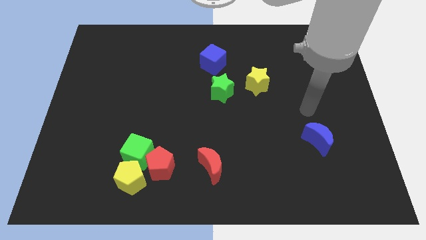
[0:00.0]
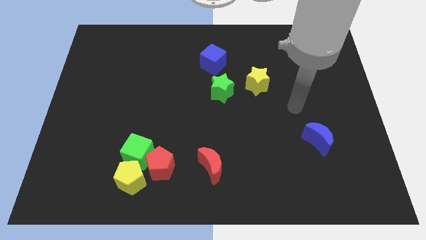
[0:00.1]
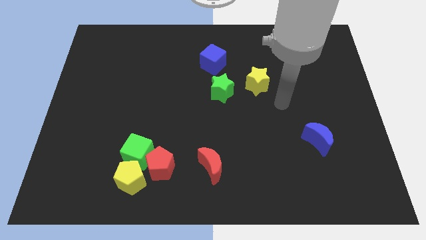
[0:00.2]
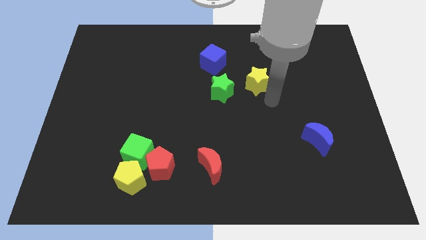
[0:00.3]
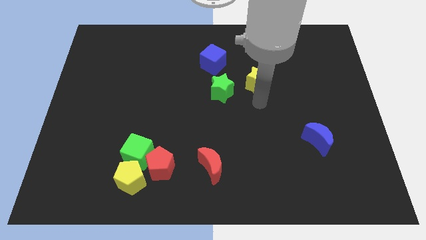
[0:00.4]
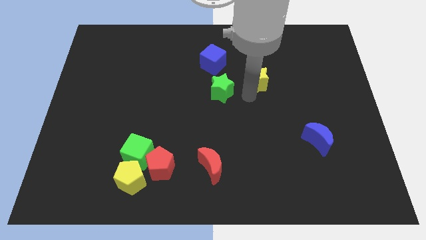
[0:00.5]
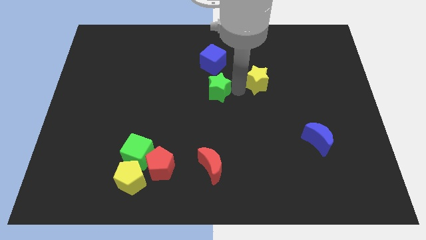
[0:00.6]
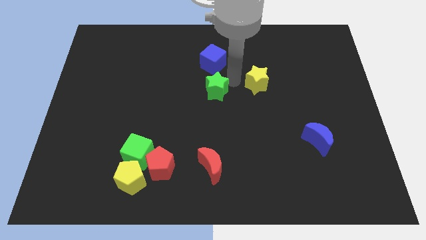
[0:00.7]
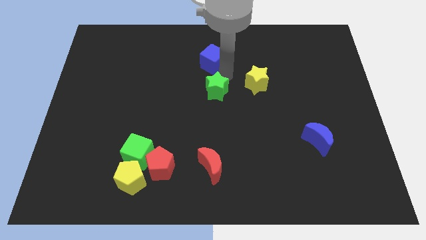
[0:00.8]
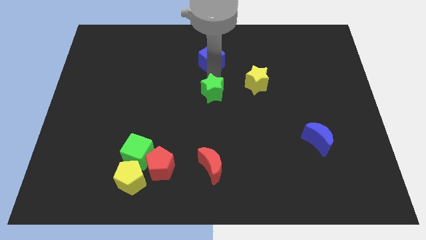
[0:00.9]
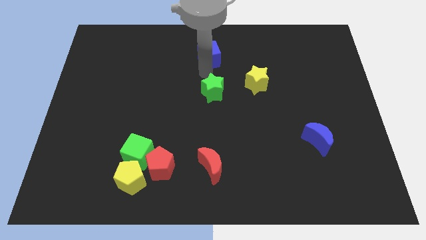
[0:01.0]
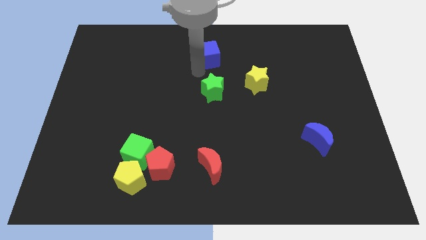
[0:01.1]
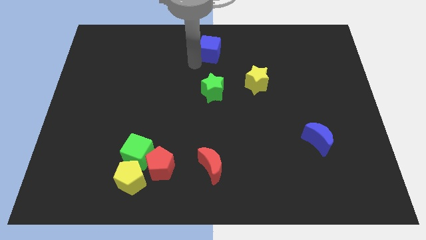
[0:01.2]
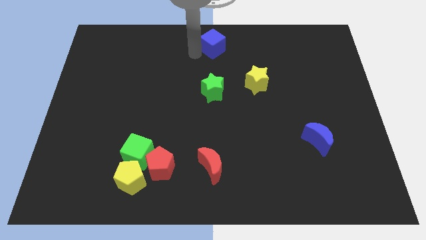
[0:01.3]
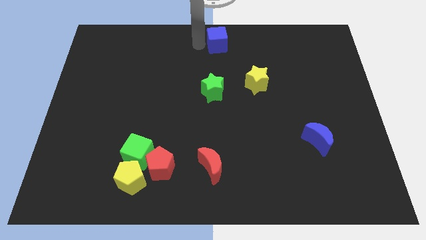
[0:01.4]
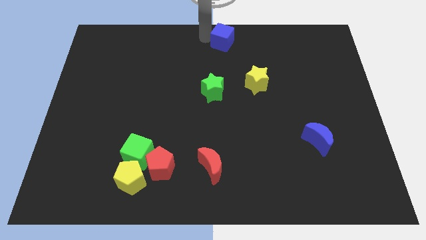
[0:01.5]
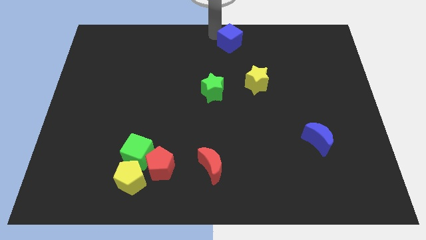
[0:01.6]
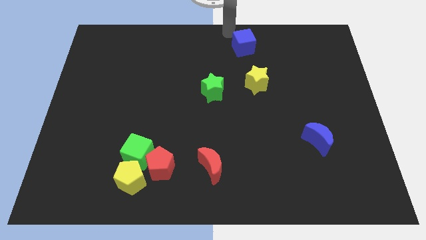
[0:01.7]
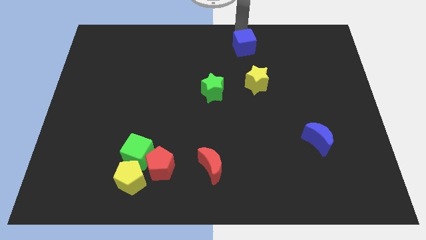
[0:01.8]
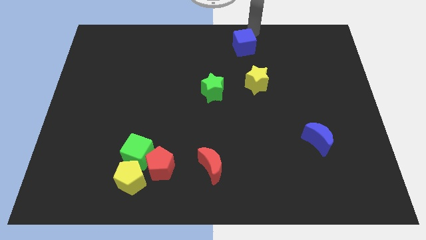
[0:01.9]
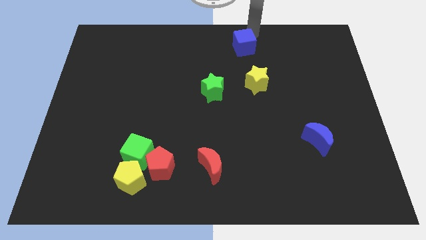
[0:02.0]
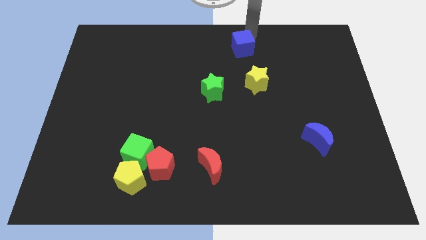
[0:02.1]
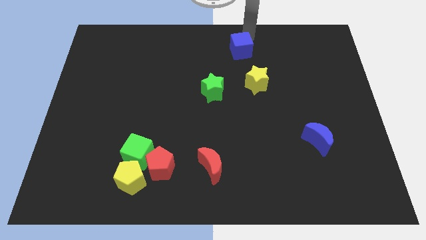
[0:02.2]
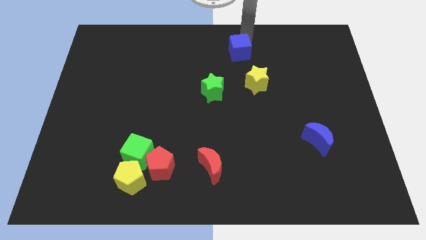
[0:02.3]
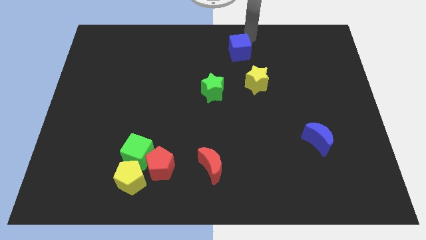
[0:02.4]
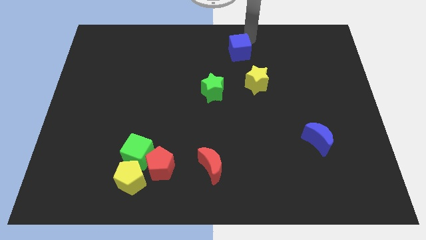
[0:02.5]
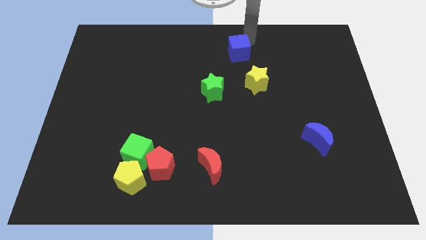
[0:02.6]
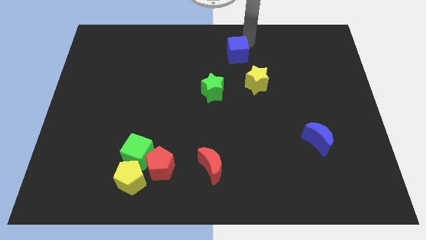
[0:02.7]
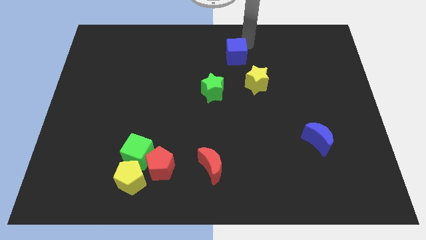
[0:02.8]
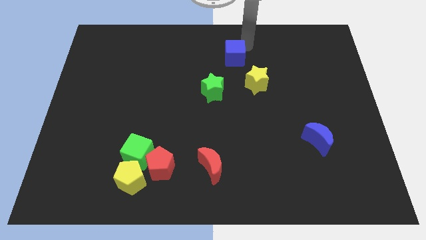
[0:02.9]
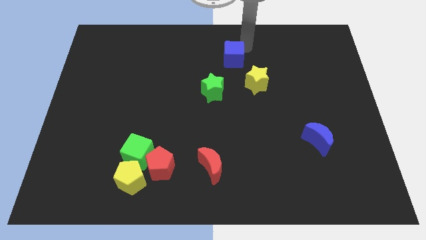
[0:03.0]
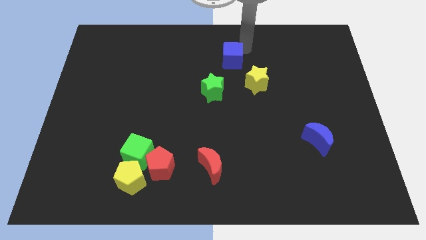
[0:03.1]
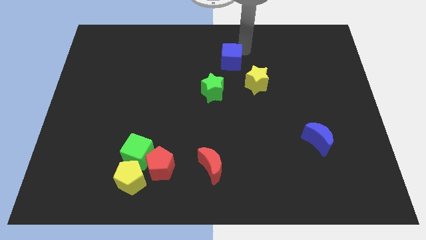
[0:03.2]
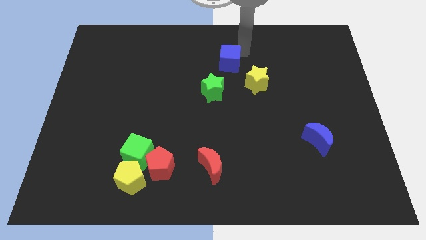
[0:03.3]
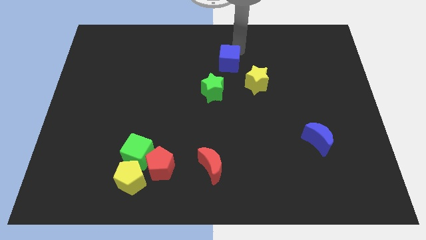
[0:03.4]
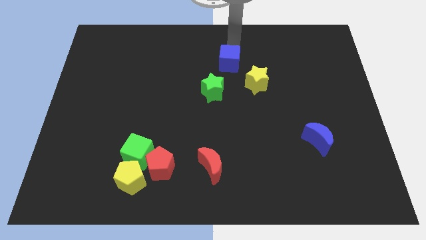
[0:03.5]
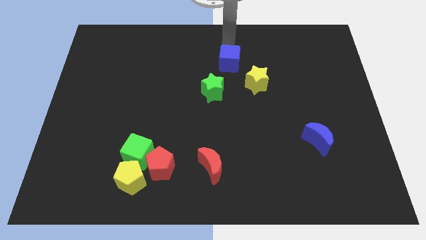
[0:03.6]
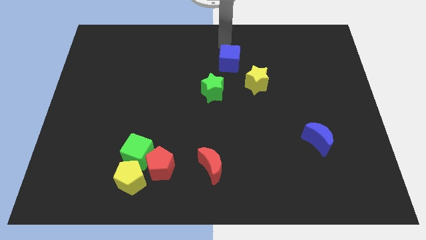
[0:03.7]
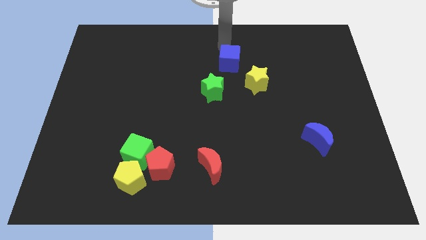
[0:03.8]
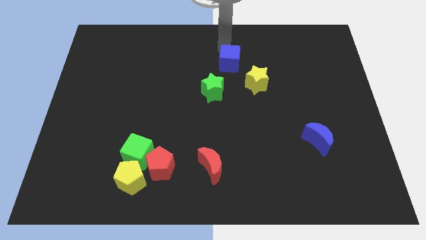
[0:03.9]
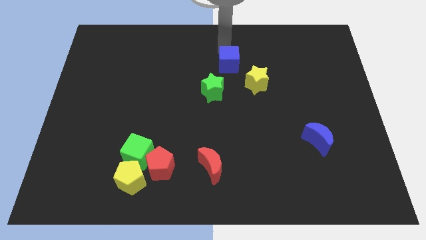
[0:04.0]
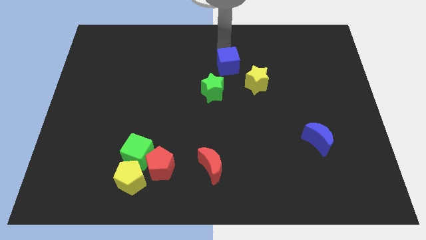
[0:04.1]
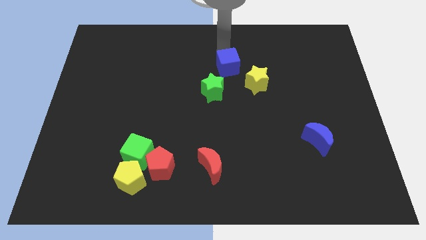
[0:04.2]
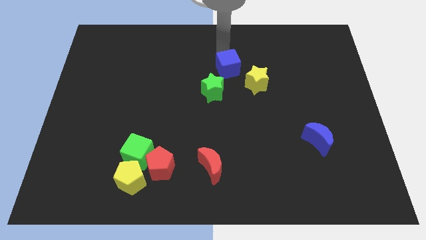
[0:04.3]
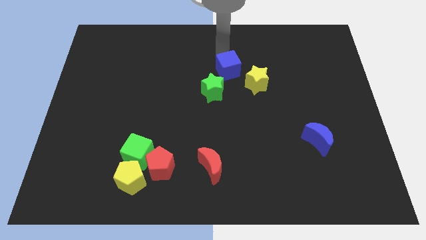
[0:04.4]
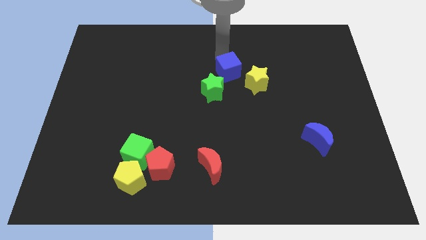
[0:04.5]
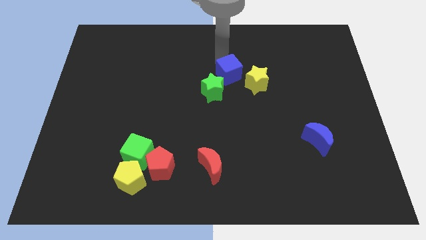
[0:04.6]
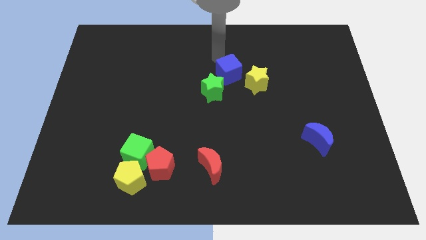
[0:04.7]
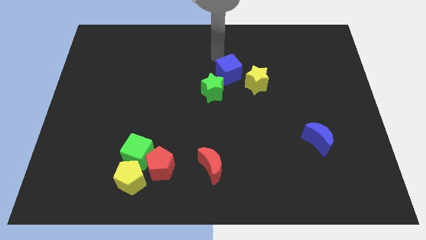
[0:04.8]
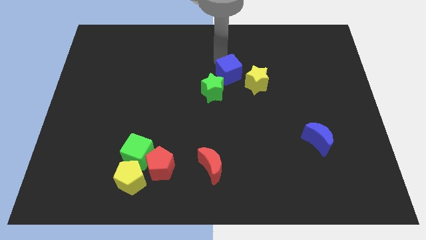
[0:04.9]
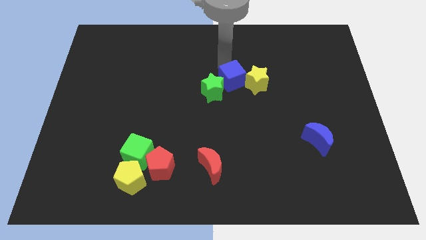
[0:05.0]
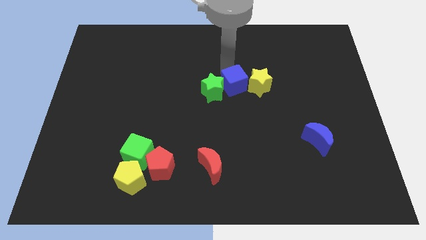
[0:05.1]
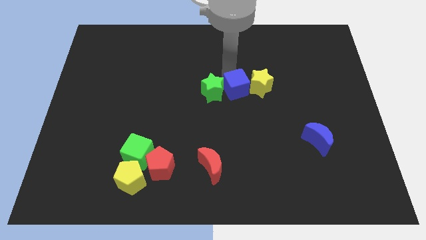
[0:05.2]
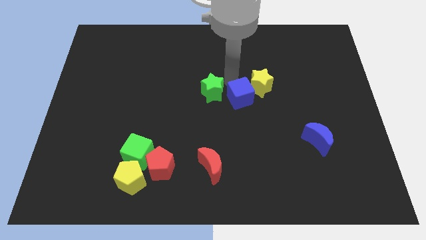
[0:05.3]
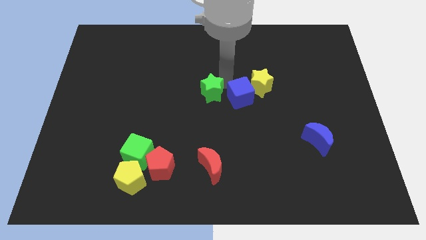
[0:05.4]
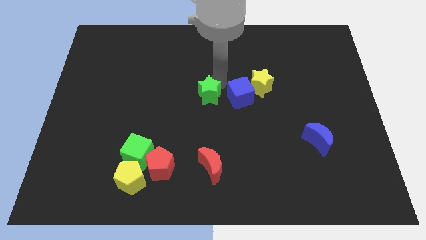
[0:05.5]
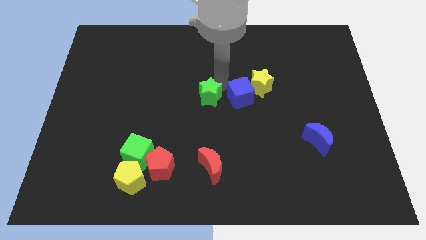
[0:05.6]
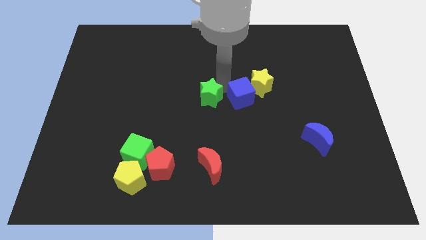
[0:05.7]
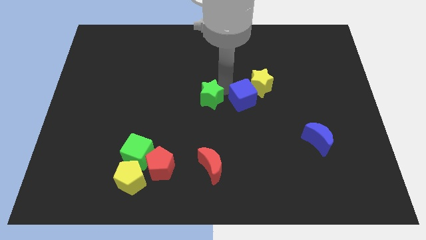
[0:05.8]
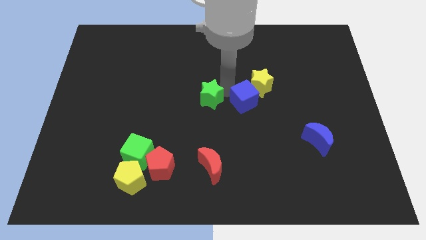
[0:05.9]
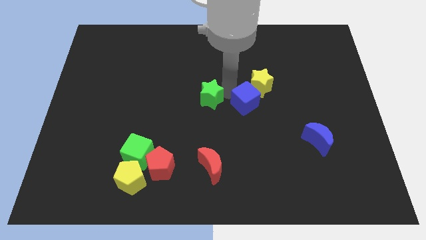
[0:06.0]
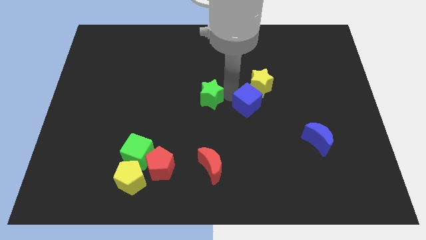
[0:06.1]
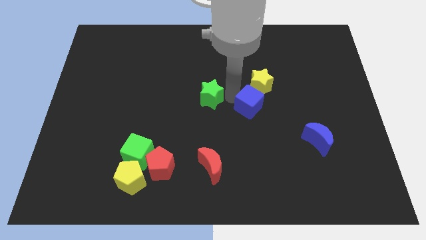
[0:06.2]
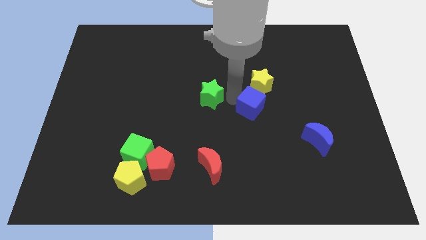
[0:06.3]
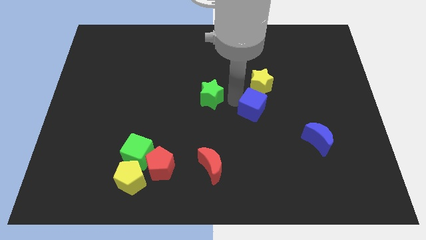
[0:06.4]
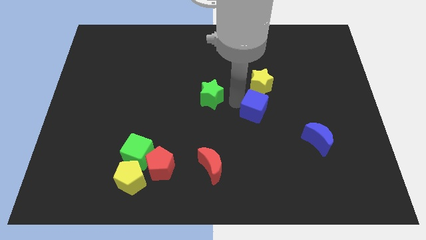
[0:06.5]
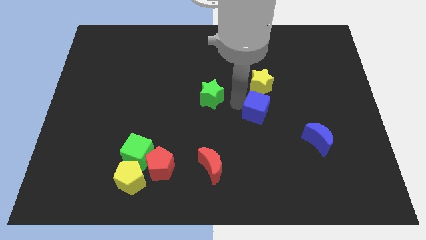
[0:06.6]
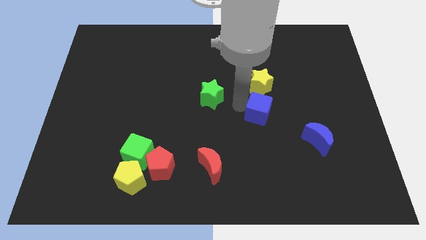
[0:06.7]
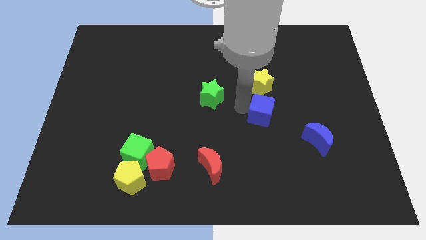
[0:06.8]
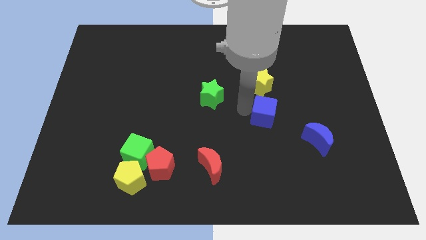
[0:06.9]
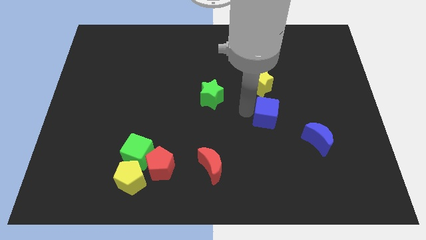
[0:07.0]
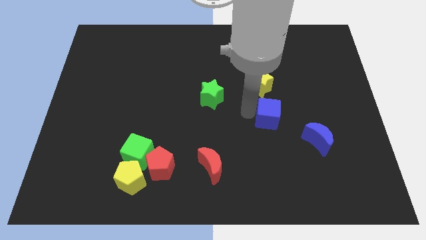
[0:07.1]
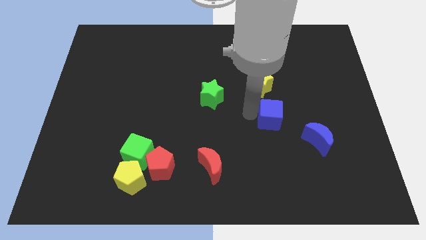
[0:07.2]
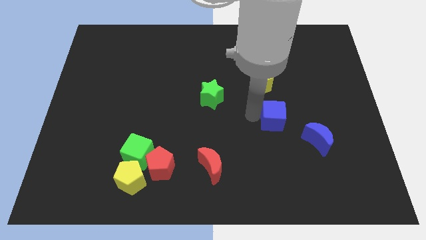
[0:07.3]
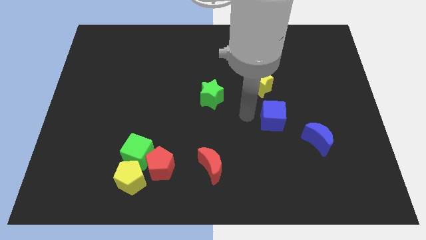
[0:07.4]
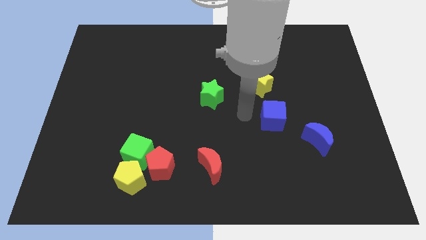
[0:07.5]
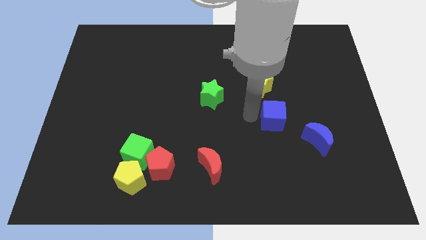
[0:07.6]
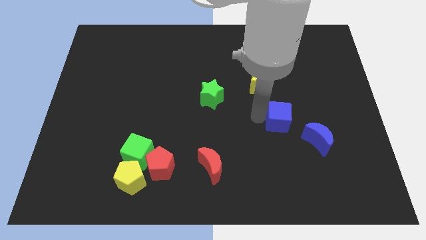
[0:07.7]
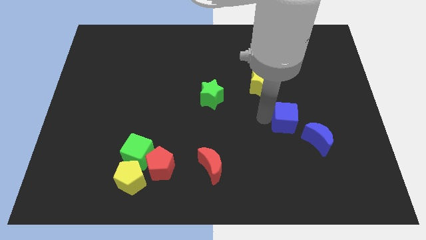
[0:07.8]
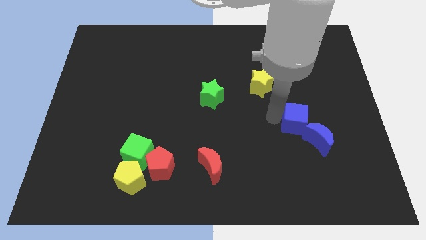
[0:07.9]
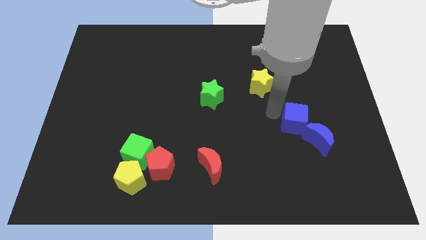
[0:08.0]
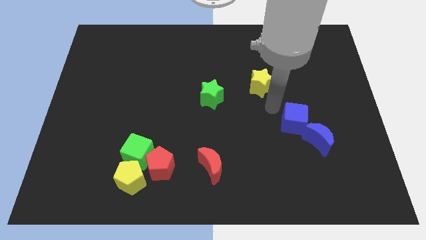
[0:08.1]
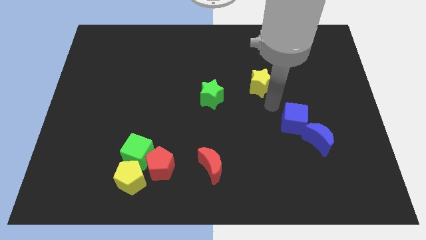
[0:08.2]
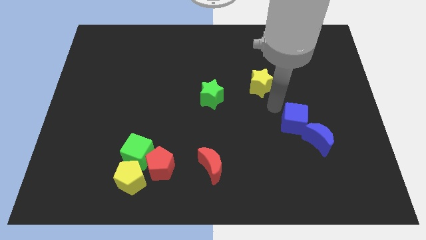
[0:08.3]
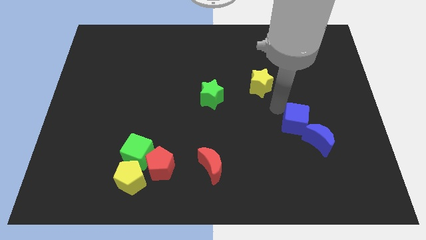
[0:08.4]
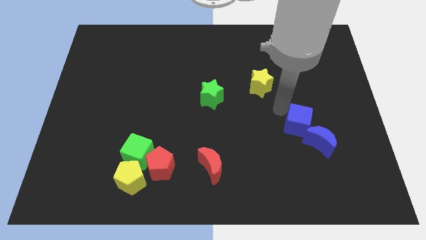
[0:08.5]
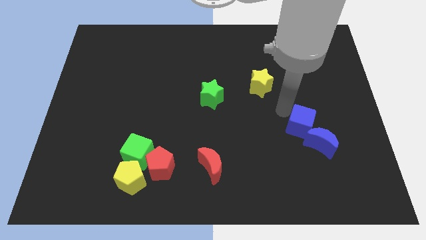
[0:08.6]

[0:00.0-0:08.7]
move the blue cube close to the blue moon
